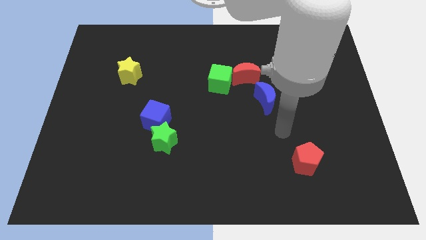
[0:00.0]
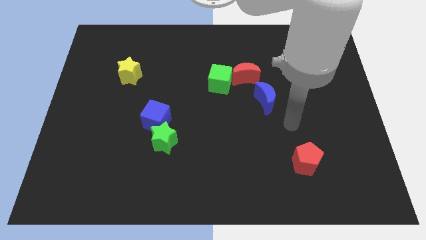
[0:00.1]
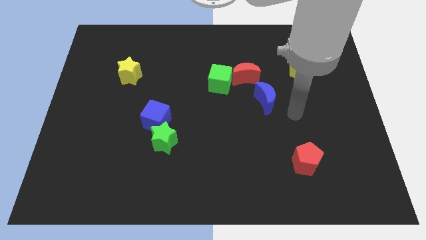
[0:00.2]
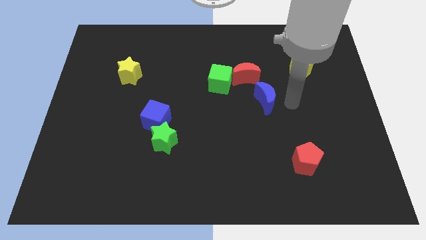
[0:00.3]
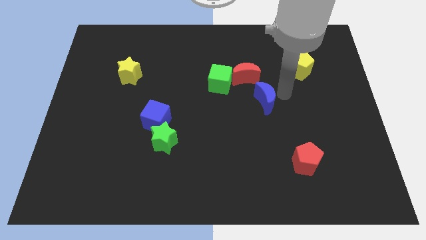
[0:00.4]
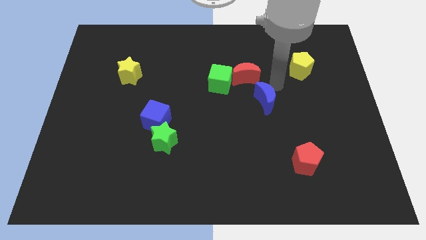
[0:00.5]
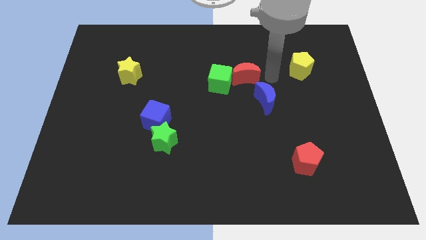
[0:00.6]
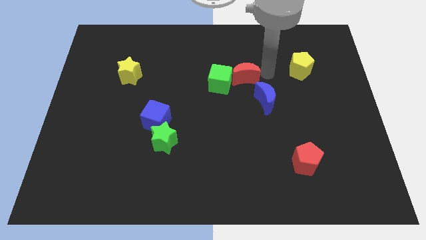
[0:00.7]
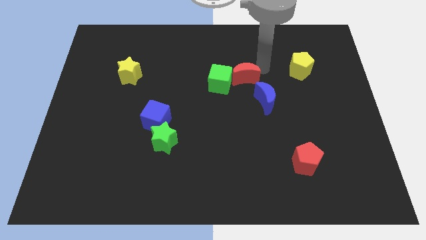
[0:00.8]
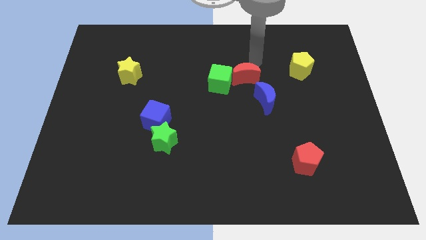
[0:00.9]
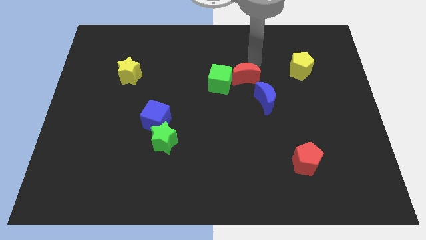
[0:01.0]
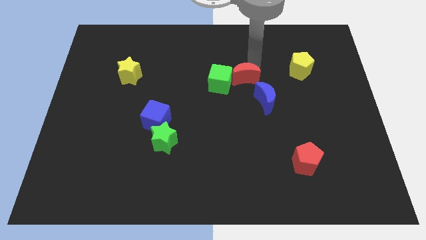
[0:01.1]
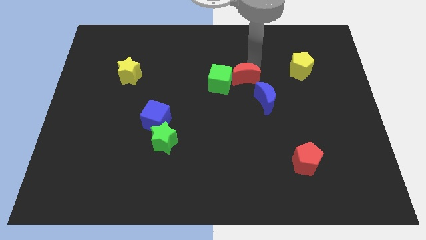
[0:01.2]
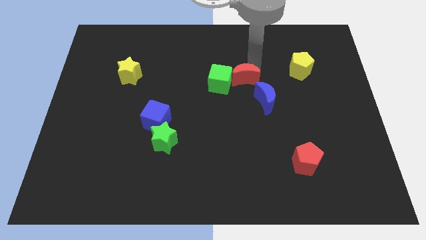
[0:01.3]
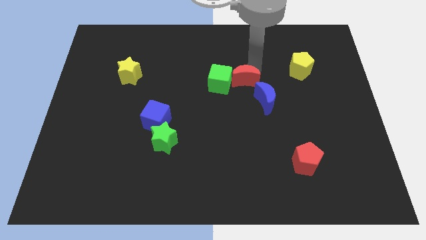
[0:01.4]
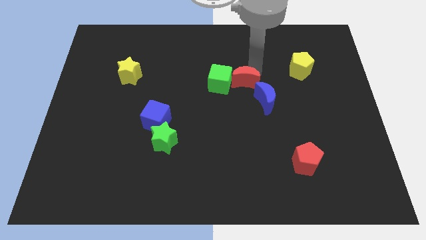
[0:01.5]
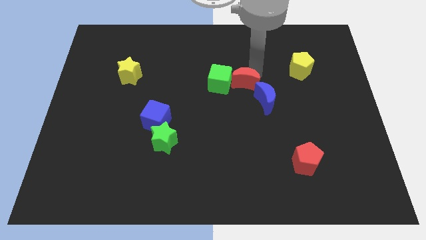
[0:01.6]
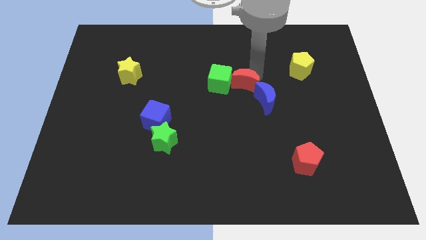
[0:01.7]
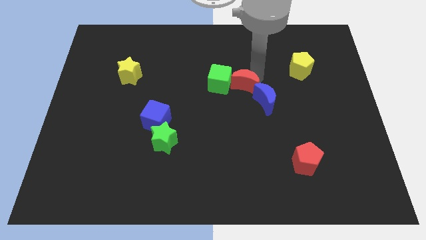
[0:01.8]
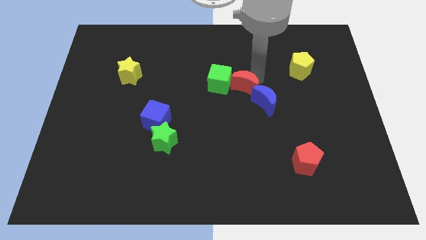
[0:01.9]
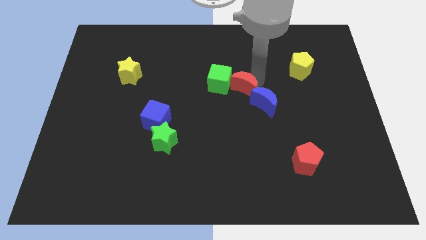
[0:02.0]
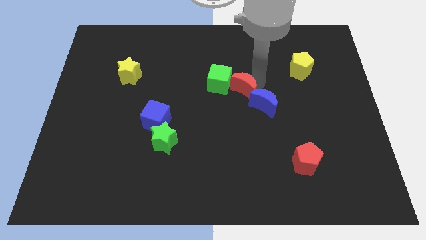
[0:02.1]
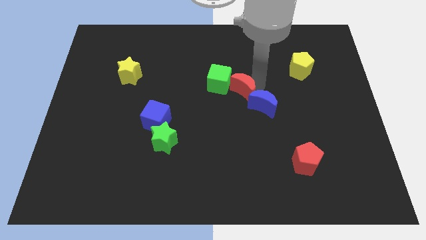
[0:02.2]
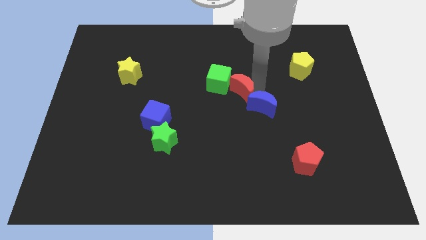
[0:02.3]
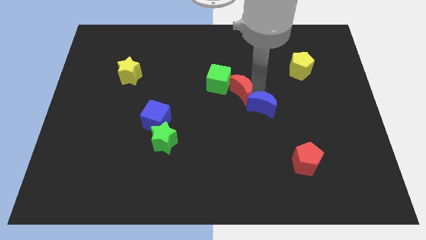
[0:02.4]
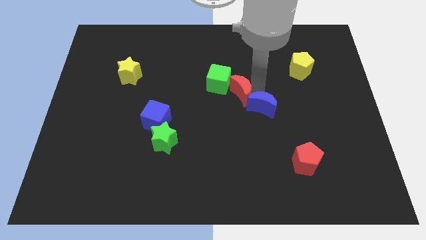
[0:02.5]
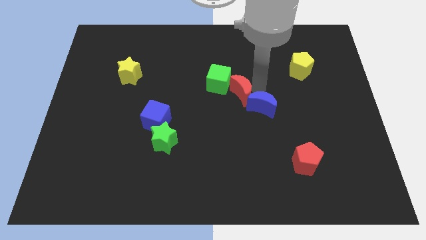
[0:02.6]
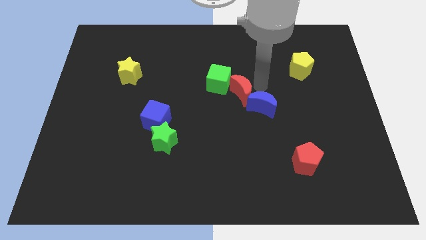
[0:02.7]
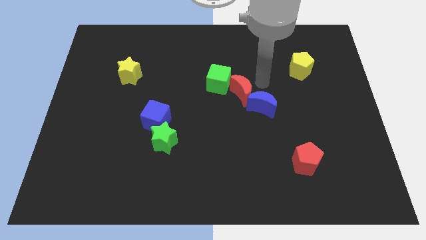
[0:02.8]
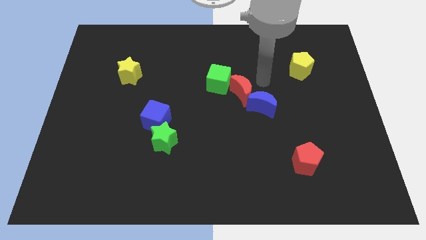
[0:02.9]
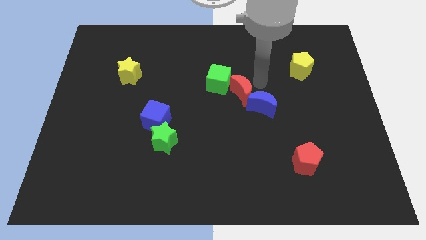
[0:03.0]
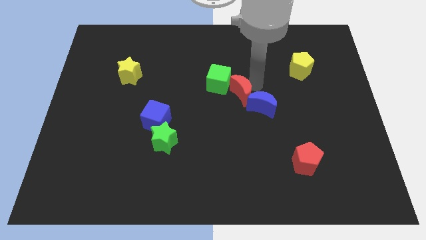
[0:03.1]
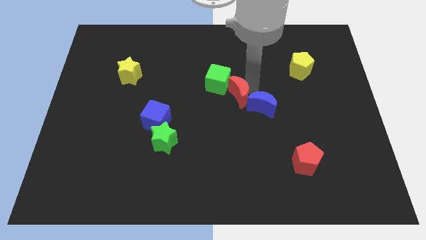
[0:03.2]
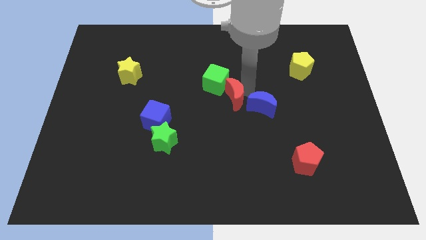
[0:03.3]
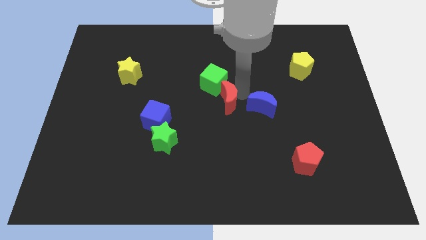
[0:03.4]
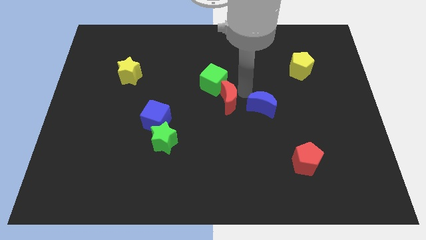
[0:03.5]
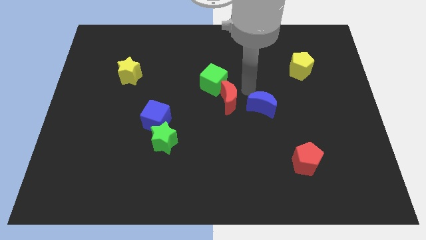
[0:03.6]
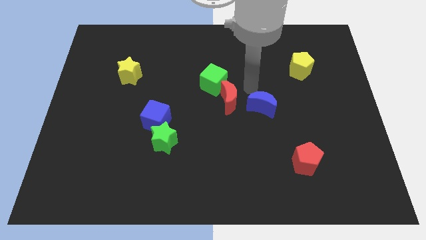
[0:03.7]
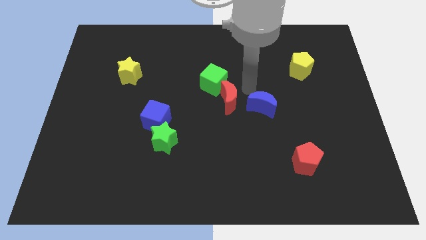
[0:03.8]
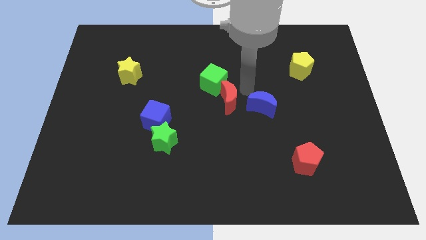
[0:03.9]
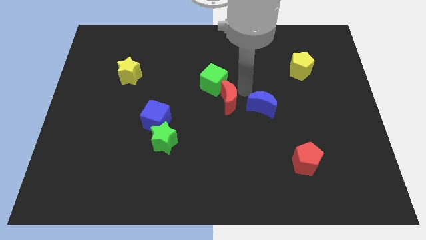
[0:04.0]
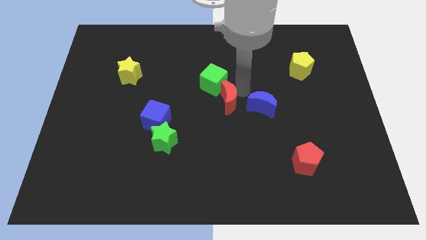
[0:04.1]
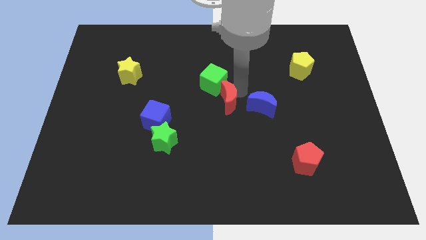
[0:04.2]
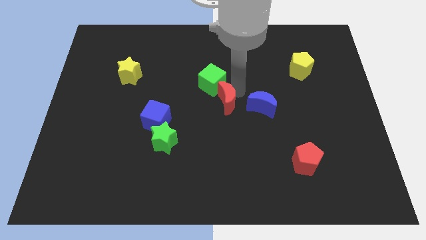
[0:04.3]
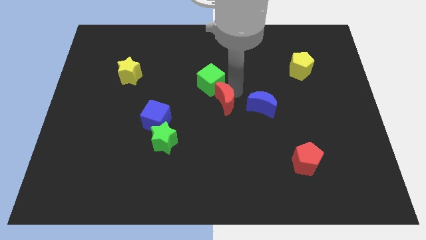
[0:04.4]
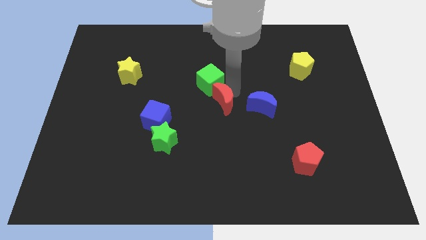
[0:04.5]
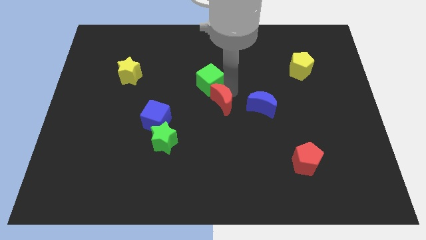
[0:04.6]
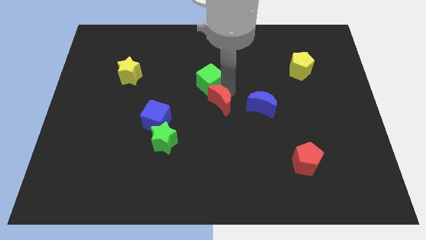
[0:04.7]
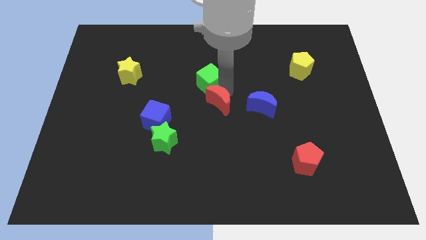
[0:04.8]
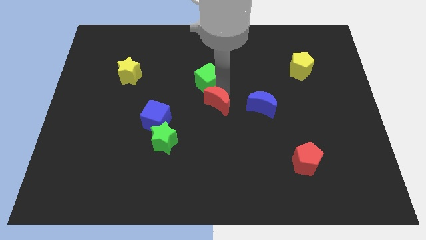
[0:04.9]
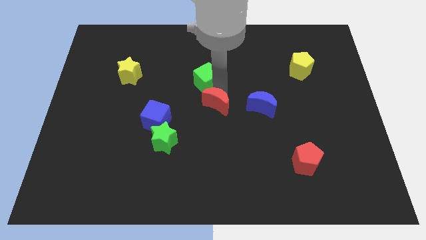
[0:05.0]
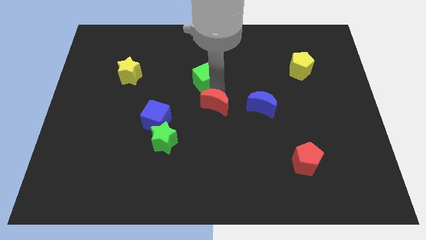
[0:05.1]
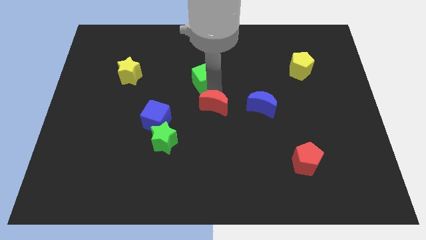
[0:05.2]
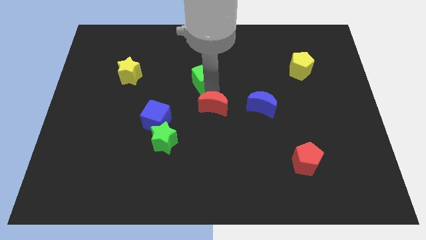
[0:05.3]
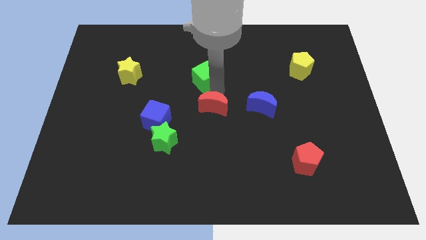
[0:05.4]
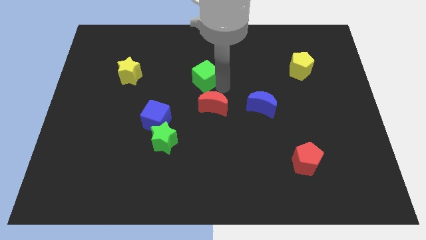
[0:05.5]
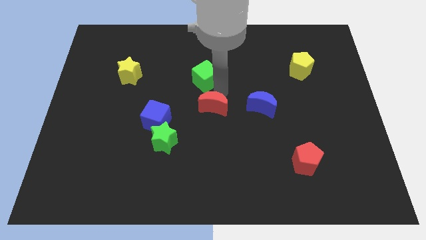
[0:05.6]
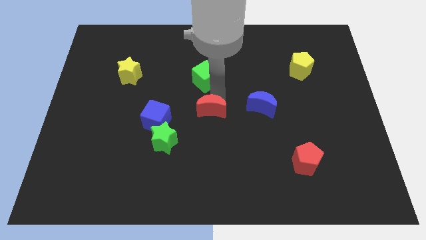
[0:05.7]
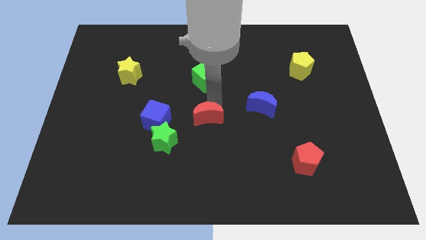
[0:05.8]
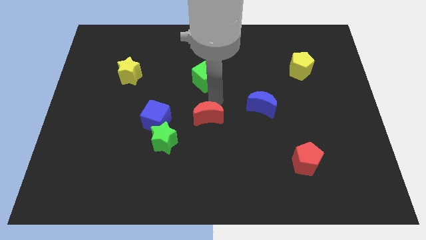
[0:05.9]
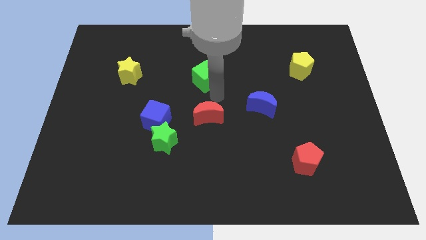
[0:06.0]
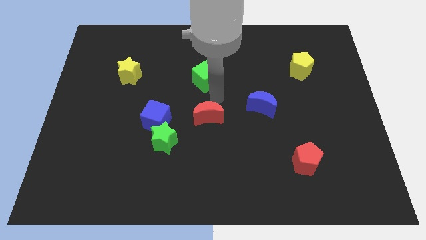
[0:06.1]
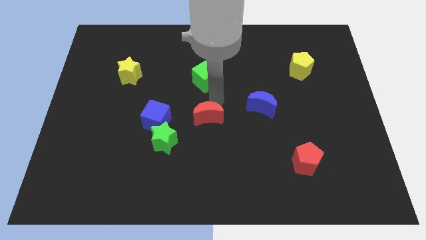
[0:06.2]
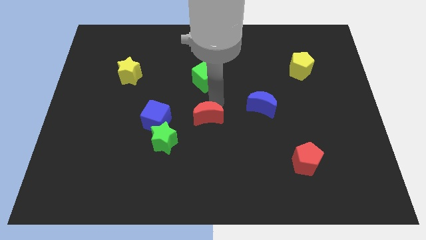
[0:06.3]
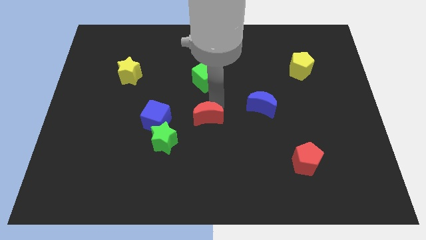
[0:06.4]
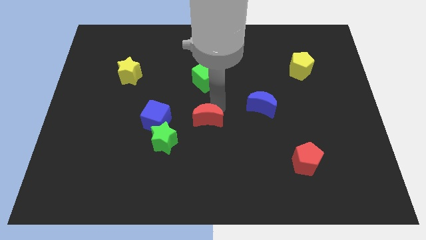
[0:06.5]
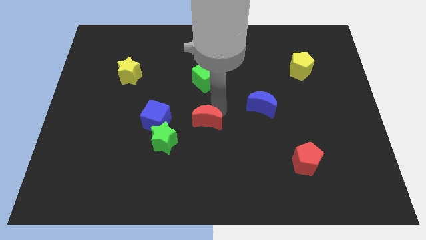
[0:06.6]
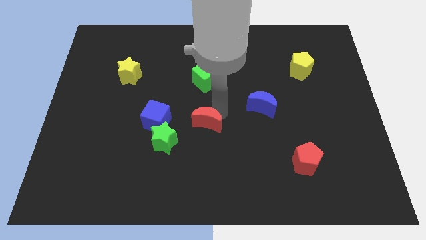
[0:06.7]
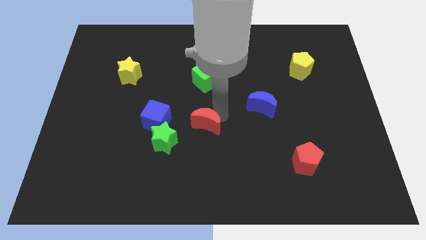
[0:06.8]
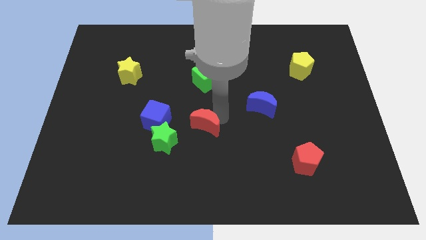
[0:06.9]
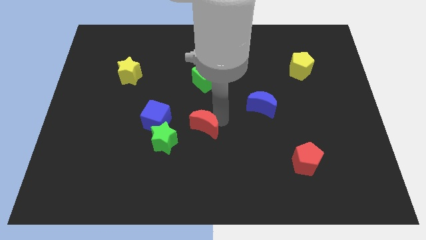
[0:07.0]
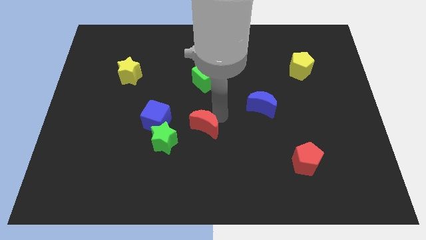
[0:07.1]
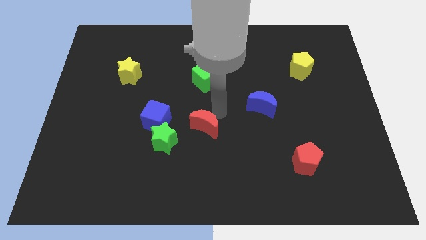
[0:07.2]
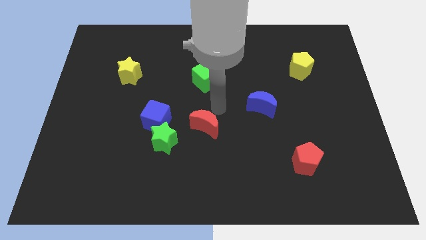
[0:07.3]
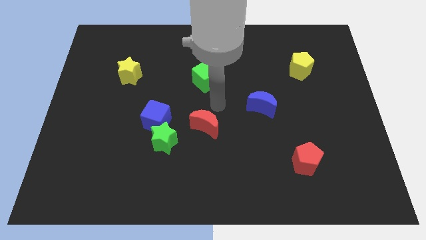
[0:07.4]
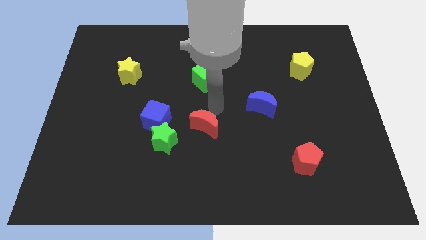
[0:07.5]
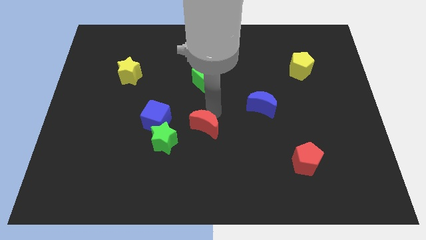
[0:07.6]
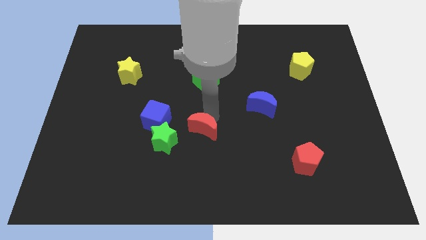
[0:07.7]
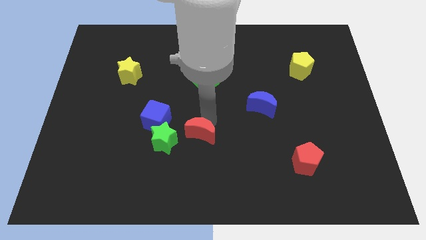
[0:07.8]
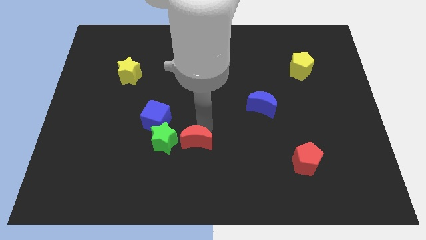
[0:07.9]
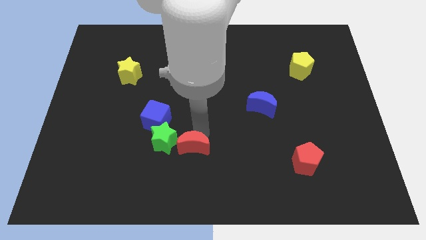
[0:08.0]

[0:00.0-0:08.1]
slide the red moon diagonally down and to the right of the green star
